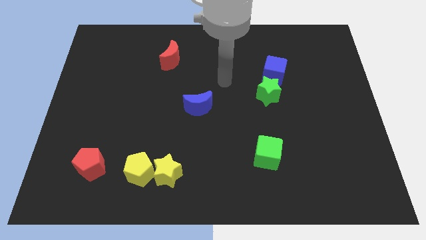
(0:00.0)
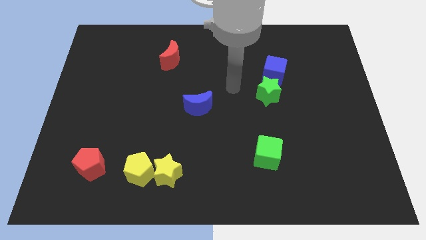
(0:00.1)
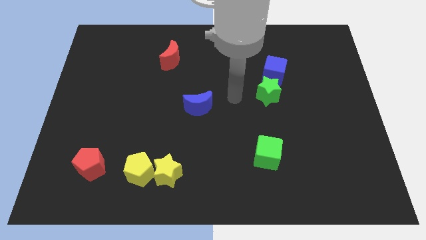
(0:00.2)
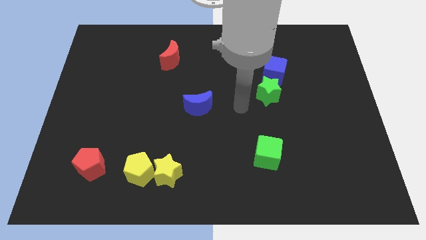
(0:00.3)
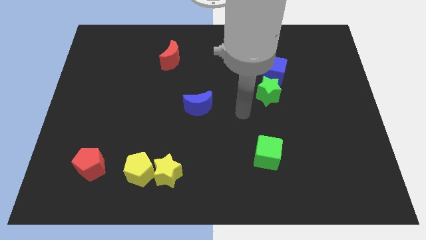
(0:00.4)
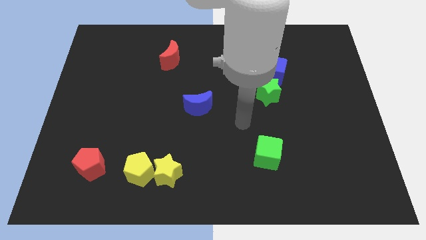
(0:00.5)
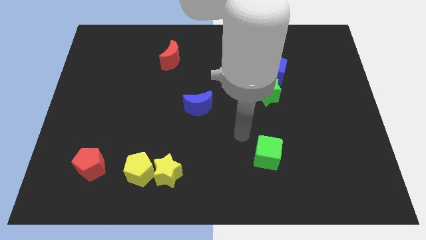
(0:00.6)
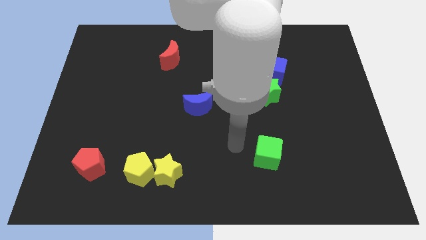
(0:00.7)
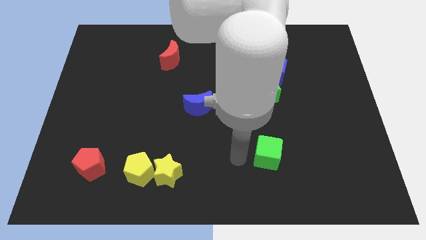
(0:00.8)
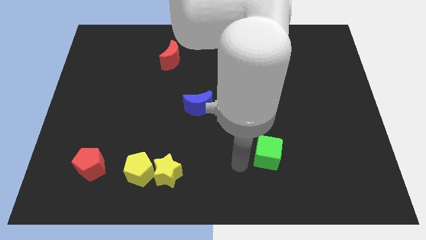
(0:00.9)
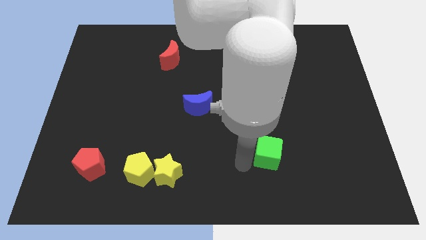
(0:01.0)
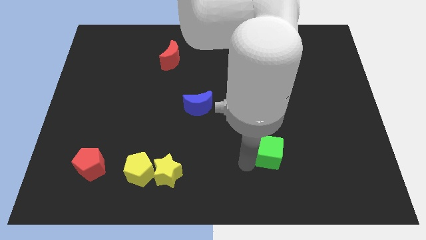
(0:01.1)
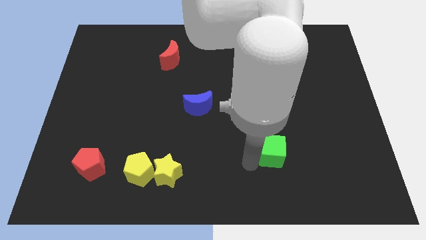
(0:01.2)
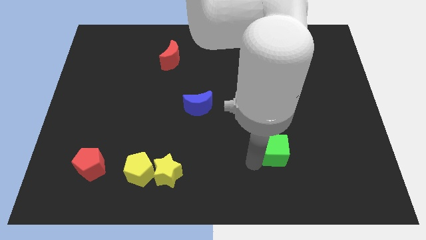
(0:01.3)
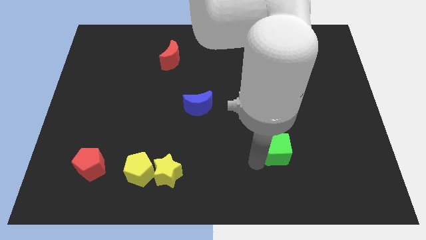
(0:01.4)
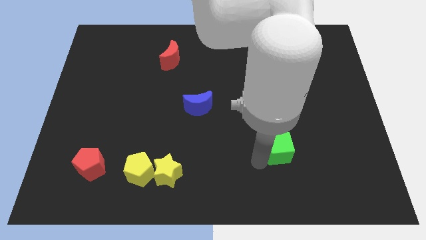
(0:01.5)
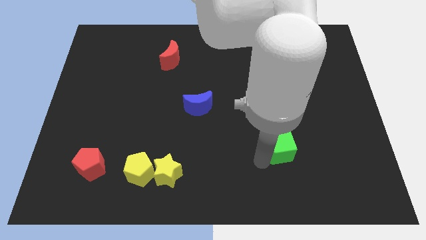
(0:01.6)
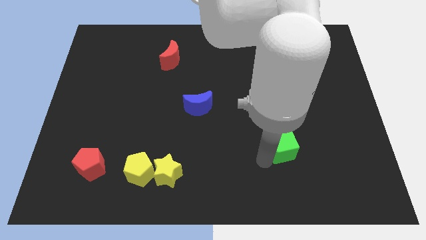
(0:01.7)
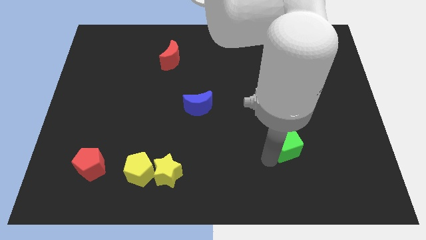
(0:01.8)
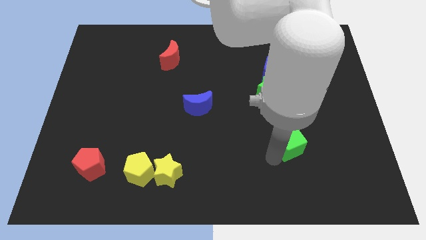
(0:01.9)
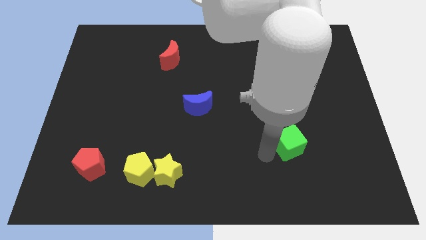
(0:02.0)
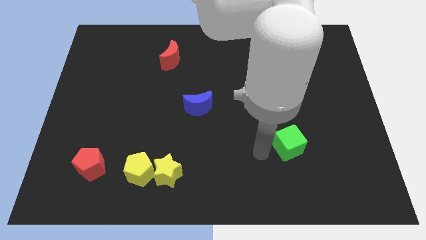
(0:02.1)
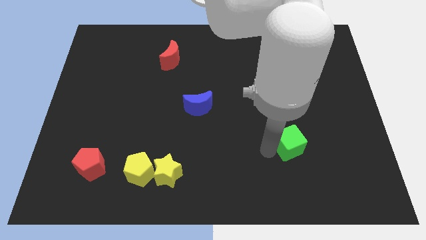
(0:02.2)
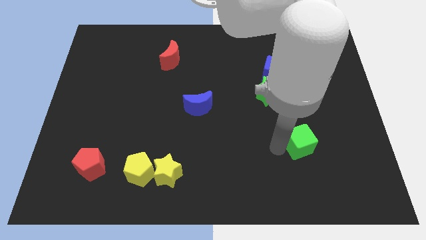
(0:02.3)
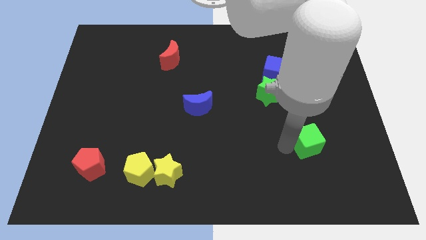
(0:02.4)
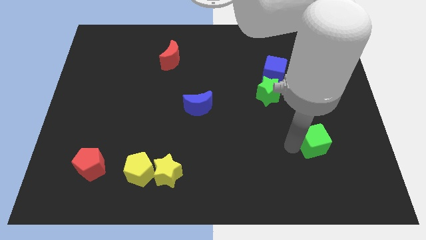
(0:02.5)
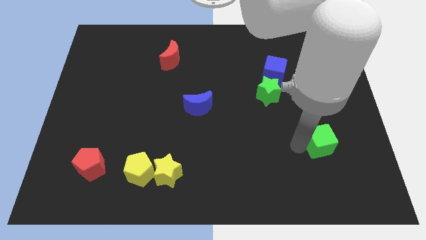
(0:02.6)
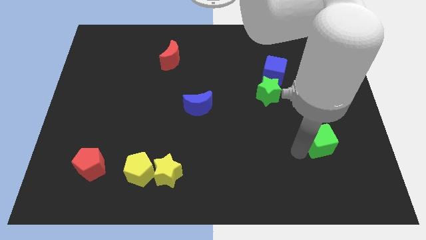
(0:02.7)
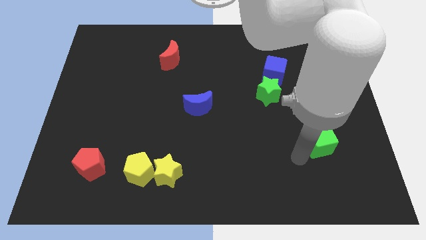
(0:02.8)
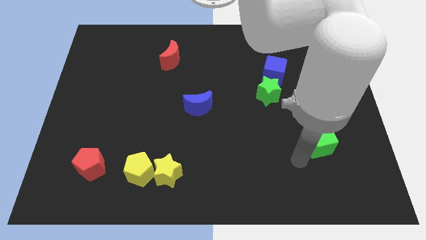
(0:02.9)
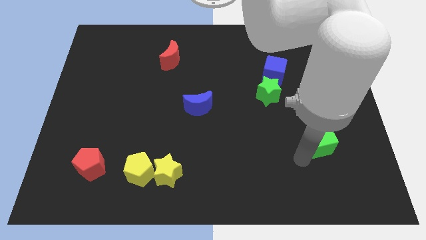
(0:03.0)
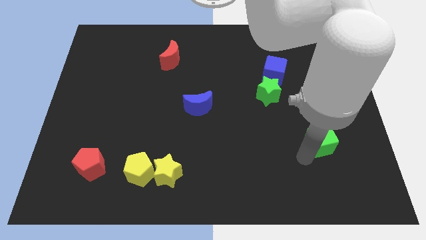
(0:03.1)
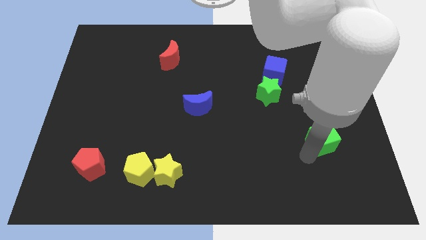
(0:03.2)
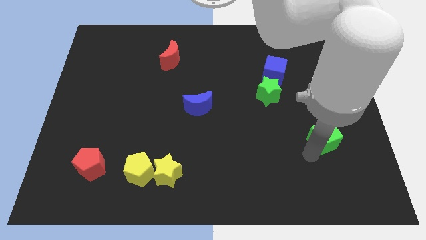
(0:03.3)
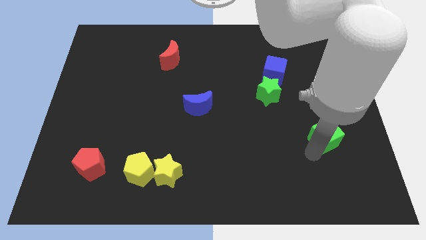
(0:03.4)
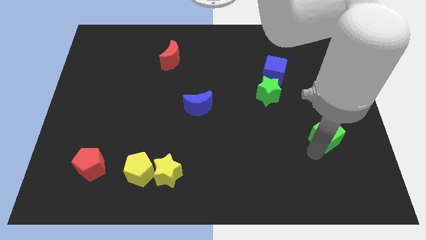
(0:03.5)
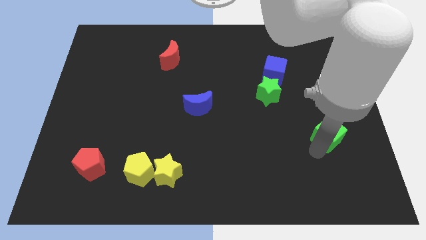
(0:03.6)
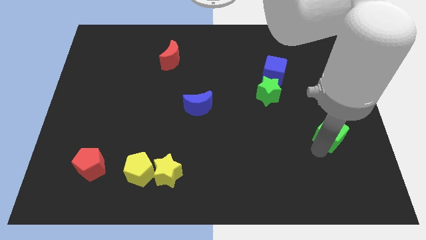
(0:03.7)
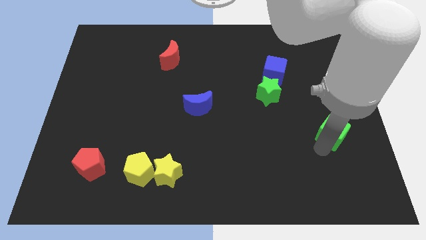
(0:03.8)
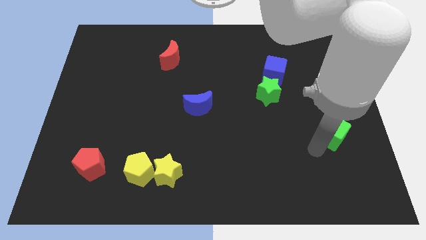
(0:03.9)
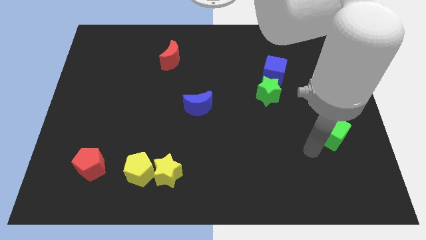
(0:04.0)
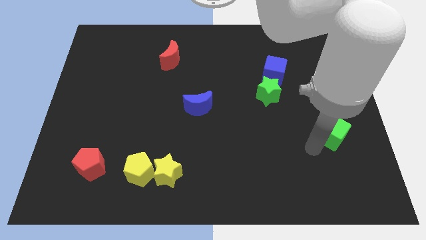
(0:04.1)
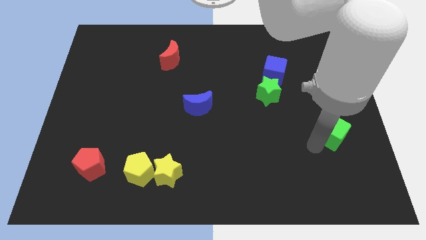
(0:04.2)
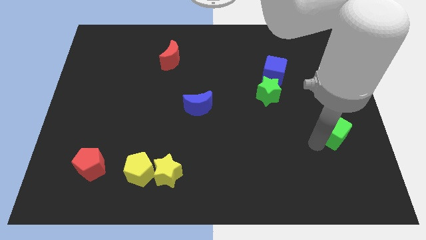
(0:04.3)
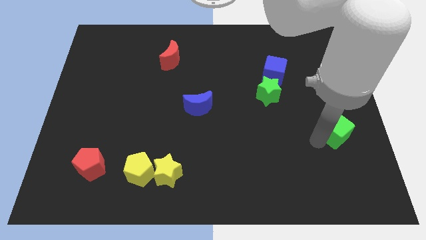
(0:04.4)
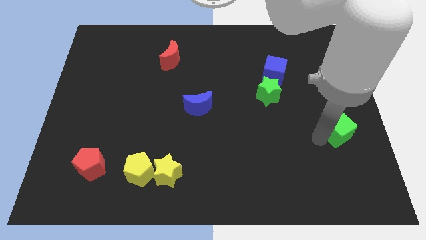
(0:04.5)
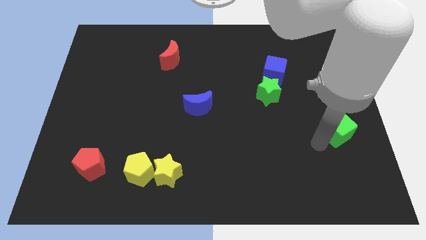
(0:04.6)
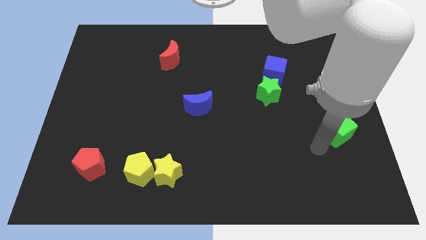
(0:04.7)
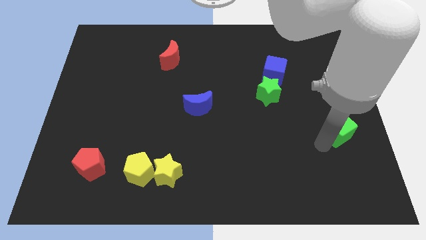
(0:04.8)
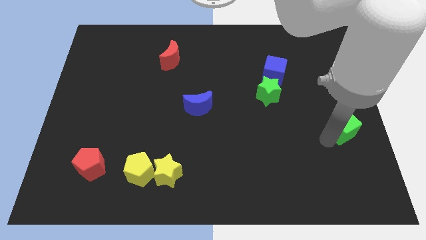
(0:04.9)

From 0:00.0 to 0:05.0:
slide the green cube to the right side of the board

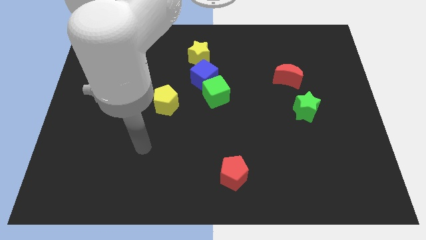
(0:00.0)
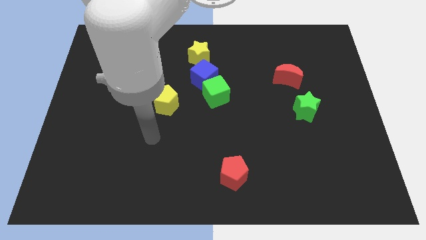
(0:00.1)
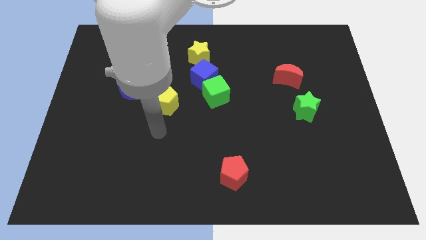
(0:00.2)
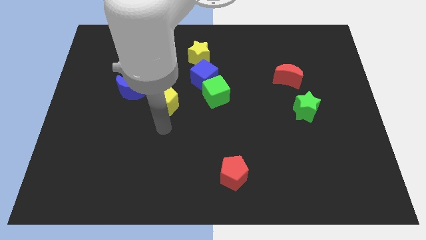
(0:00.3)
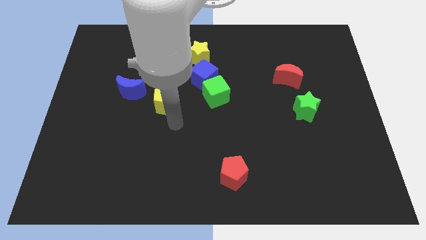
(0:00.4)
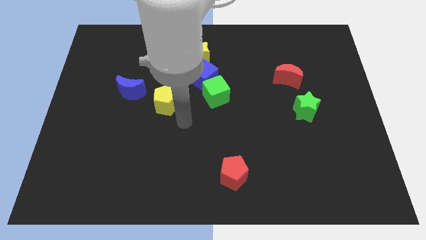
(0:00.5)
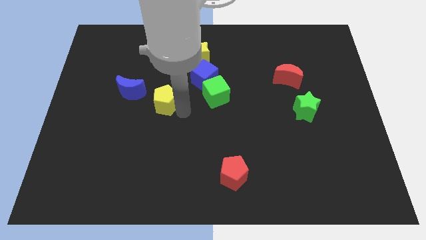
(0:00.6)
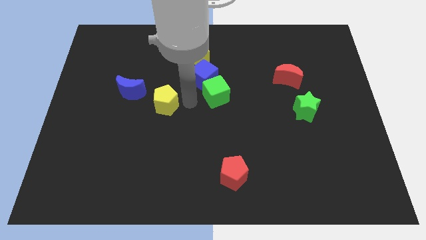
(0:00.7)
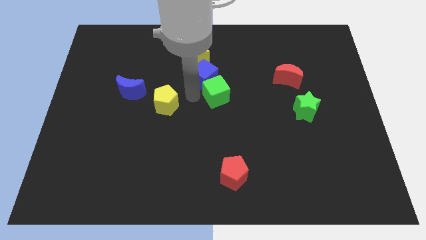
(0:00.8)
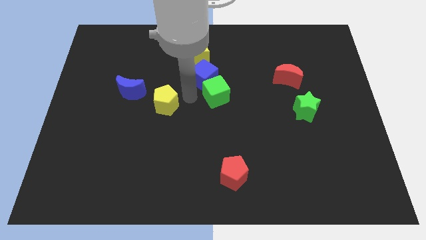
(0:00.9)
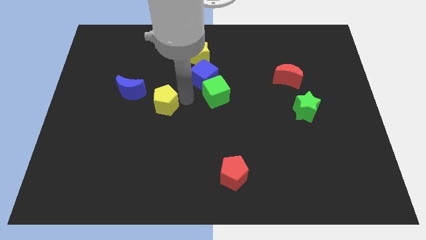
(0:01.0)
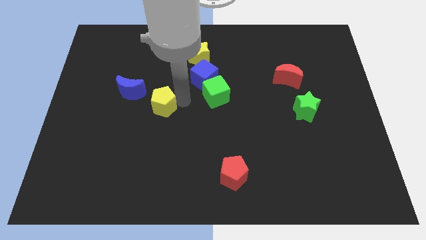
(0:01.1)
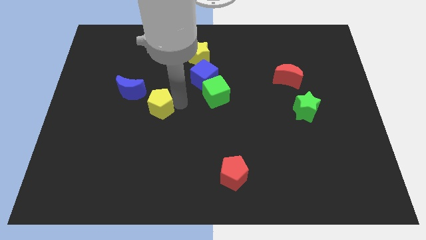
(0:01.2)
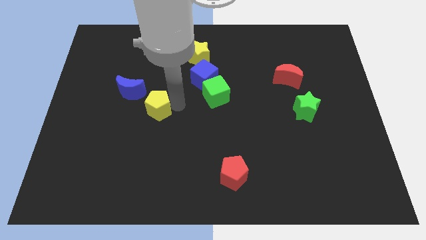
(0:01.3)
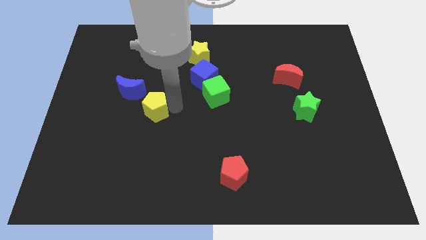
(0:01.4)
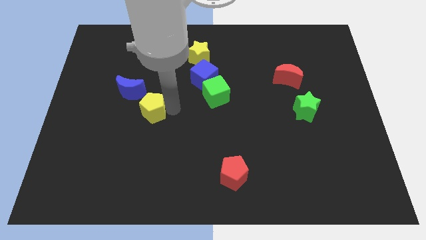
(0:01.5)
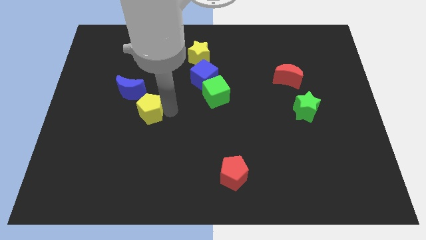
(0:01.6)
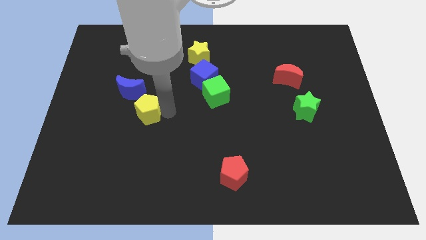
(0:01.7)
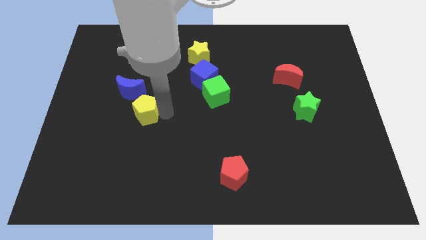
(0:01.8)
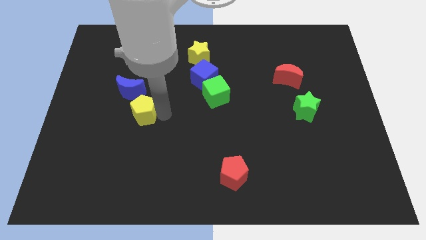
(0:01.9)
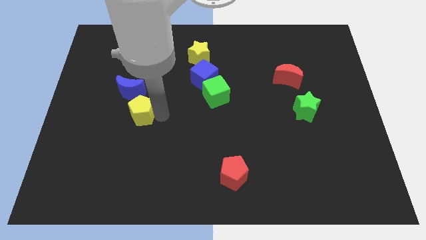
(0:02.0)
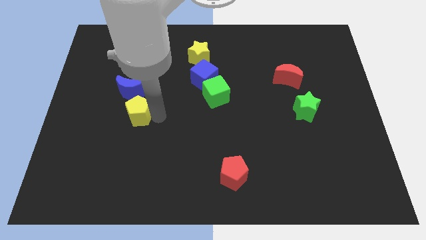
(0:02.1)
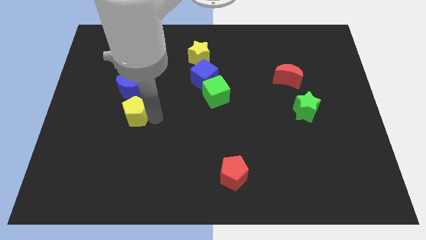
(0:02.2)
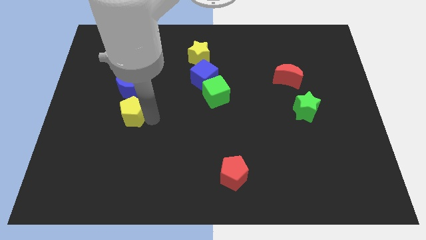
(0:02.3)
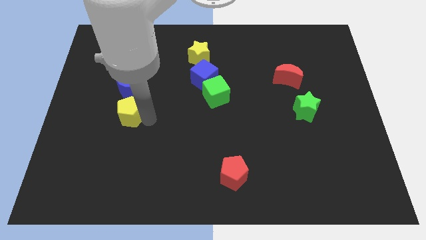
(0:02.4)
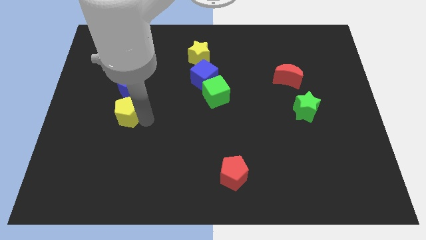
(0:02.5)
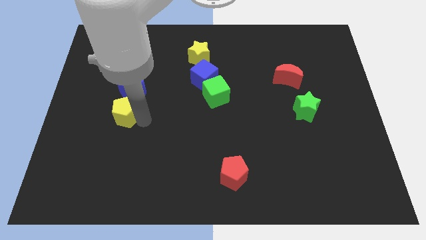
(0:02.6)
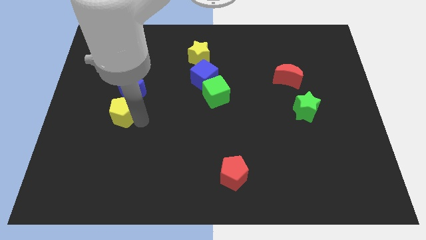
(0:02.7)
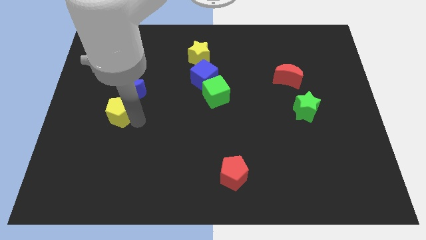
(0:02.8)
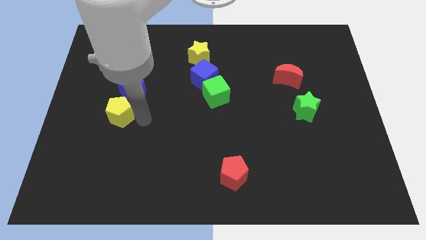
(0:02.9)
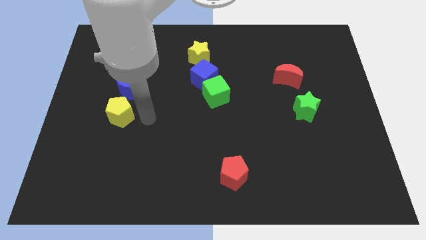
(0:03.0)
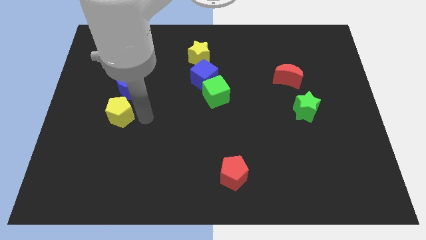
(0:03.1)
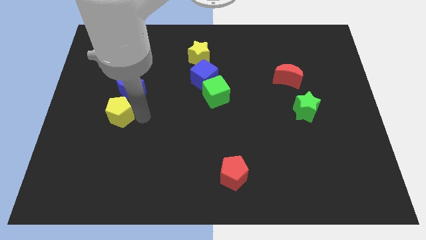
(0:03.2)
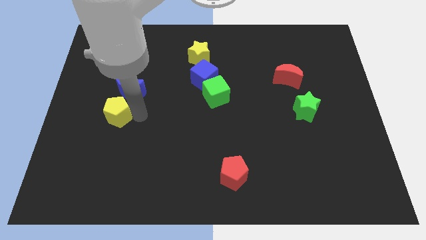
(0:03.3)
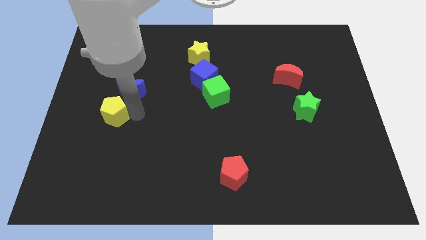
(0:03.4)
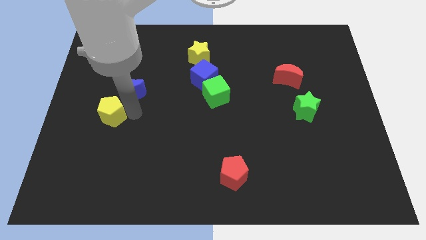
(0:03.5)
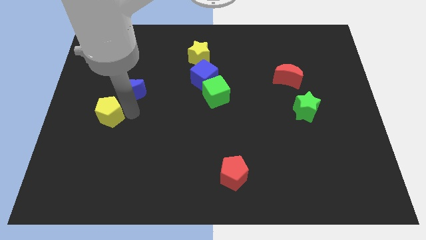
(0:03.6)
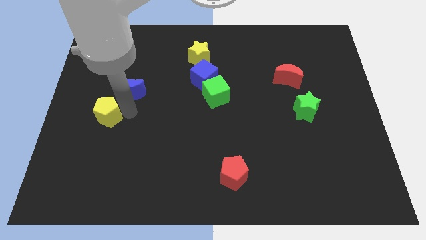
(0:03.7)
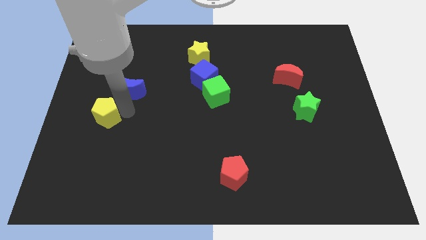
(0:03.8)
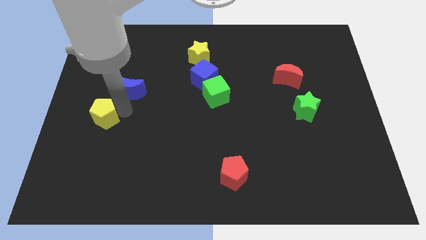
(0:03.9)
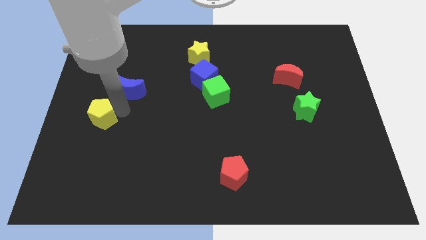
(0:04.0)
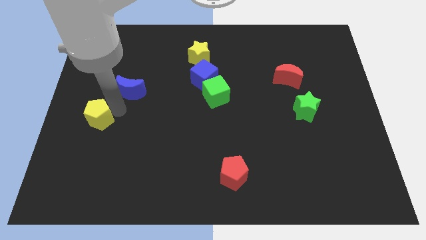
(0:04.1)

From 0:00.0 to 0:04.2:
put the yellow pentagon to the center left
